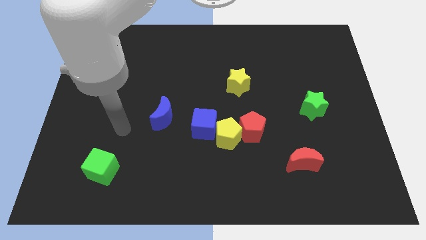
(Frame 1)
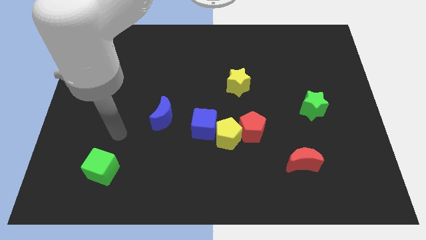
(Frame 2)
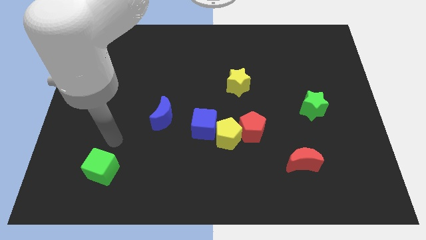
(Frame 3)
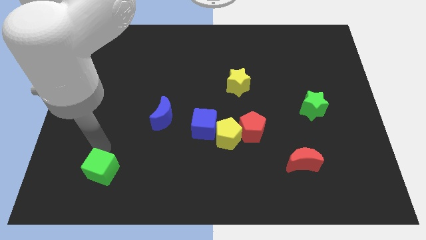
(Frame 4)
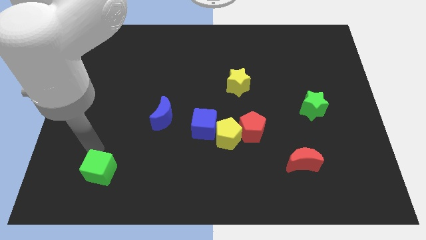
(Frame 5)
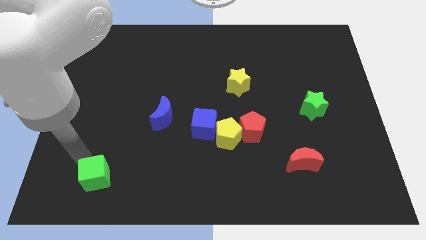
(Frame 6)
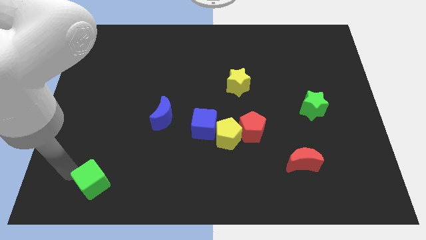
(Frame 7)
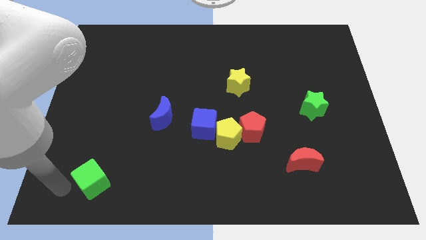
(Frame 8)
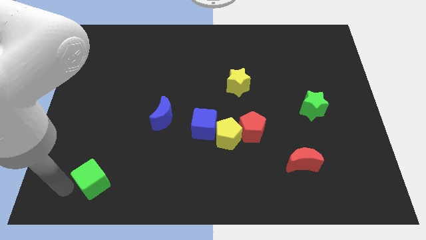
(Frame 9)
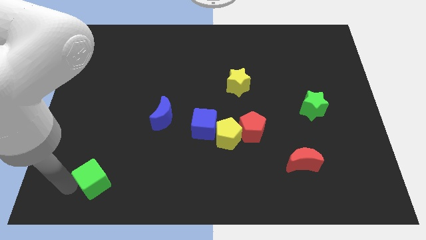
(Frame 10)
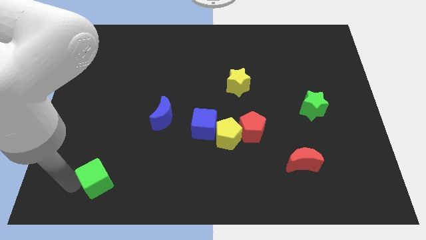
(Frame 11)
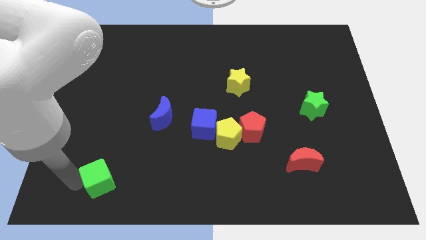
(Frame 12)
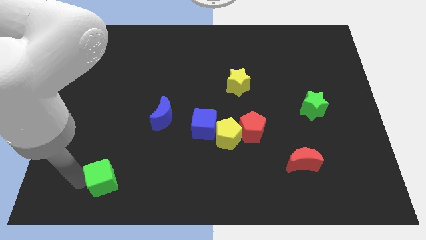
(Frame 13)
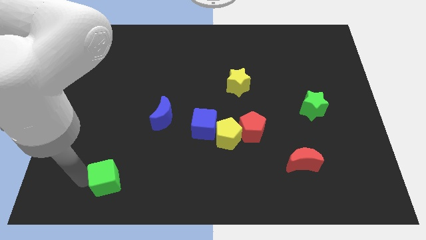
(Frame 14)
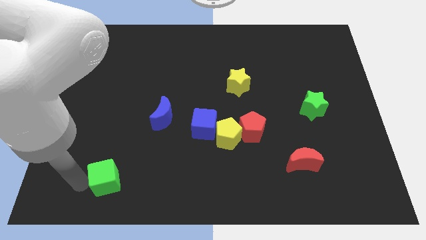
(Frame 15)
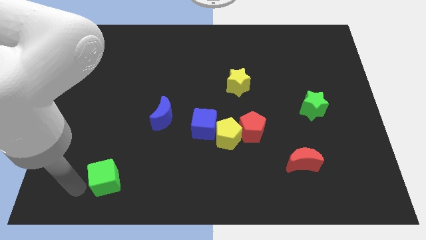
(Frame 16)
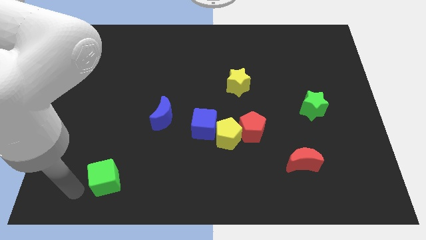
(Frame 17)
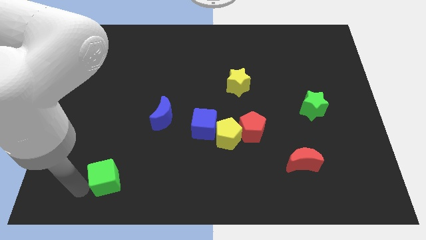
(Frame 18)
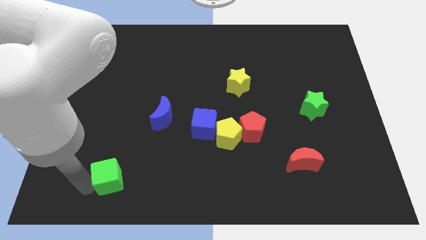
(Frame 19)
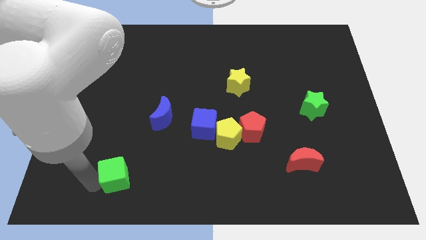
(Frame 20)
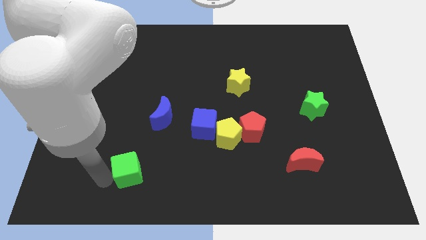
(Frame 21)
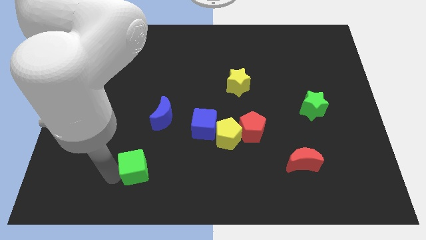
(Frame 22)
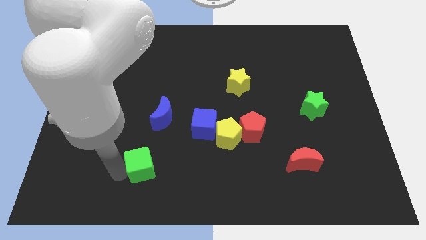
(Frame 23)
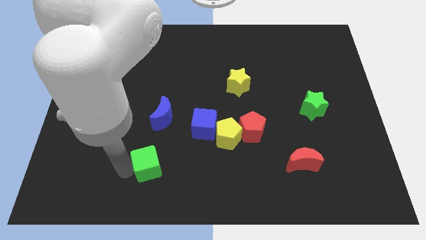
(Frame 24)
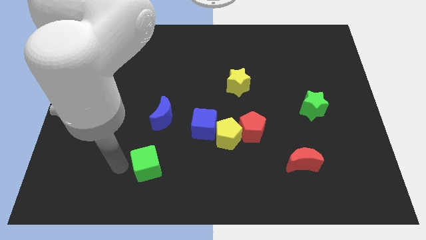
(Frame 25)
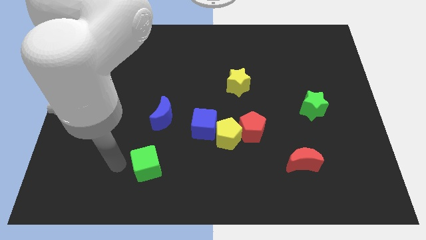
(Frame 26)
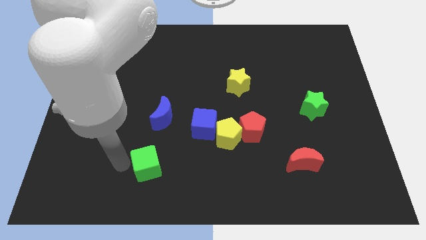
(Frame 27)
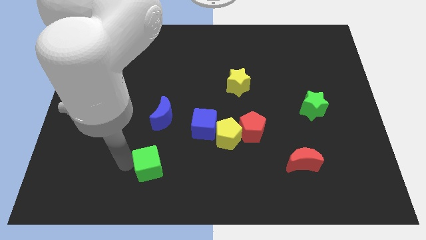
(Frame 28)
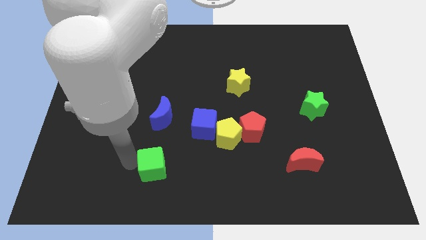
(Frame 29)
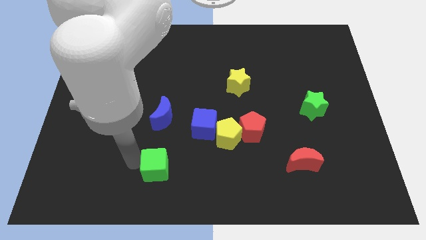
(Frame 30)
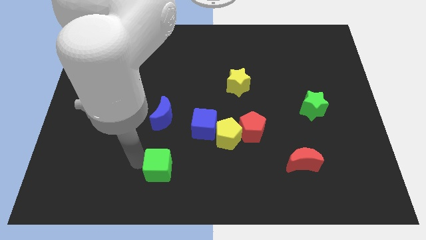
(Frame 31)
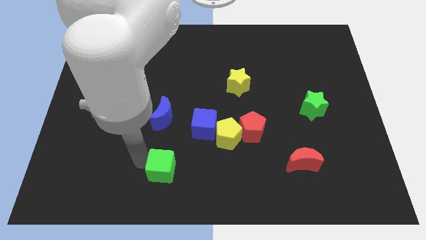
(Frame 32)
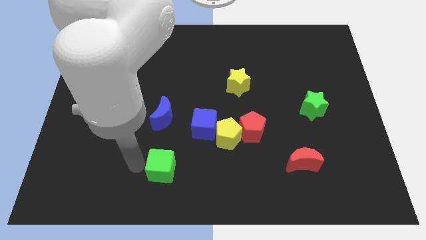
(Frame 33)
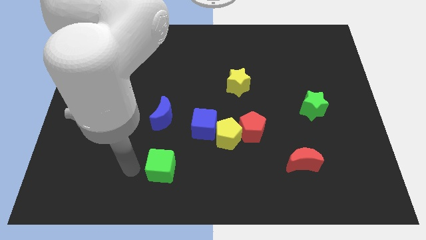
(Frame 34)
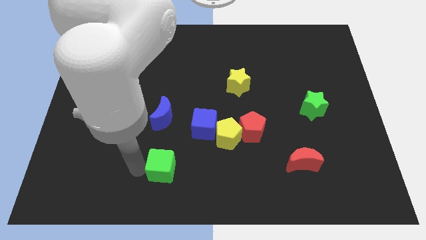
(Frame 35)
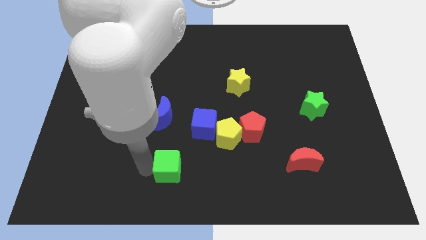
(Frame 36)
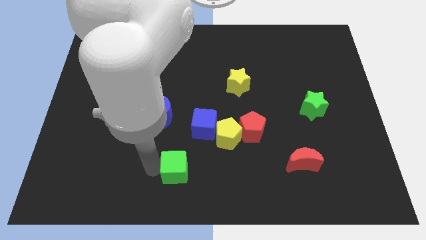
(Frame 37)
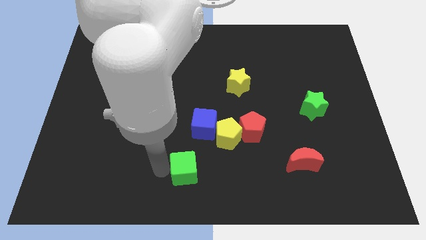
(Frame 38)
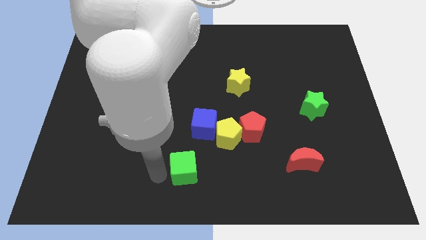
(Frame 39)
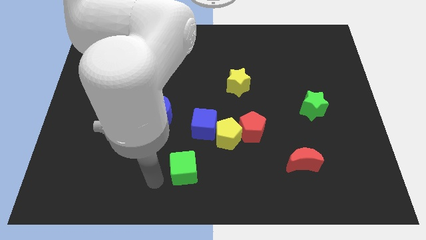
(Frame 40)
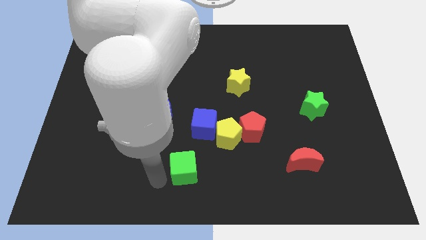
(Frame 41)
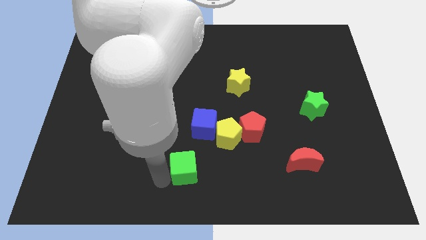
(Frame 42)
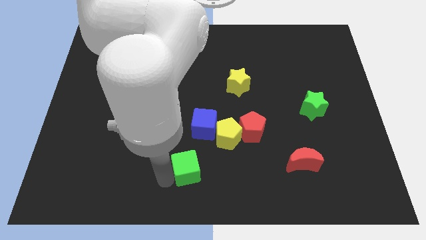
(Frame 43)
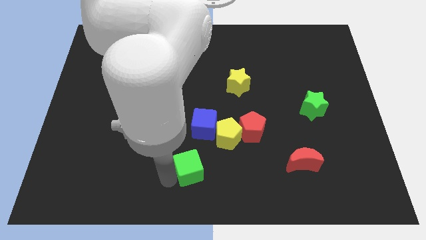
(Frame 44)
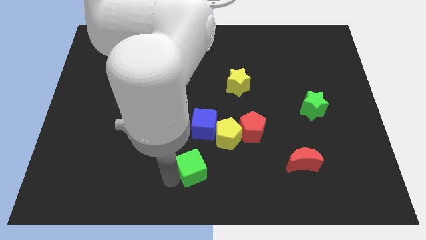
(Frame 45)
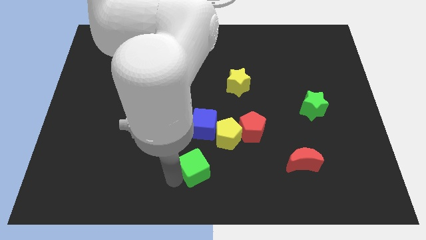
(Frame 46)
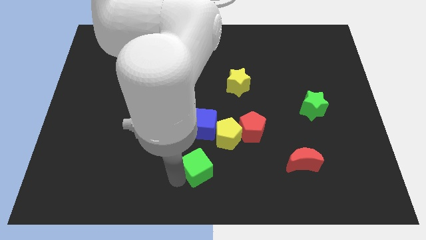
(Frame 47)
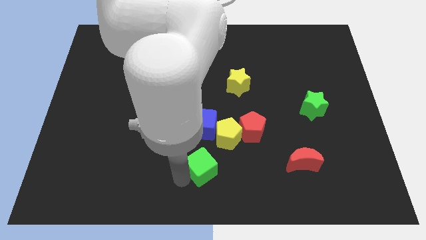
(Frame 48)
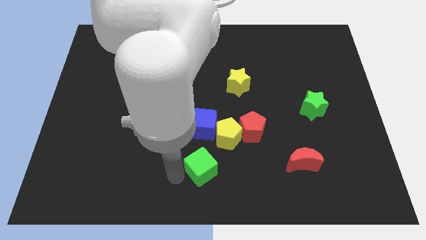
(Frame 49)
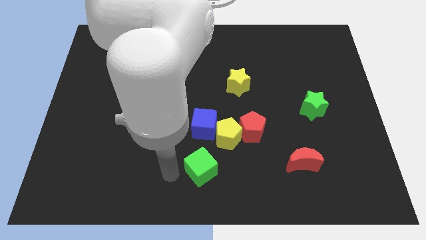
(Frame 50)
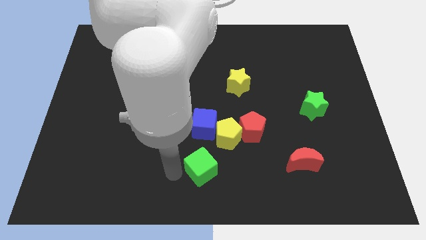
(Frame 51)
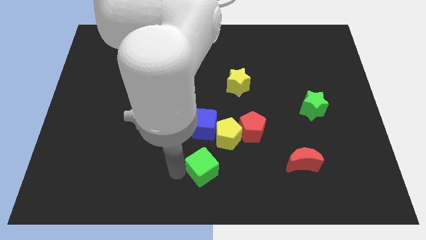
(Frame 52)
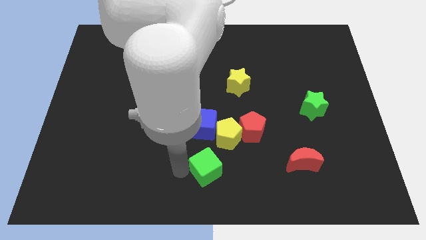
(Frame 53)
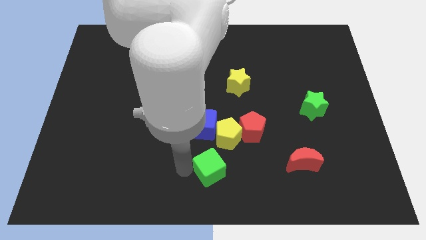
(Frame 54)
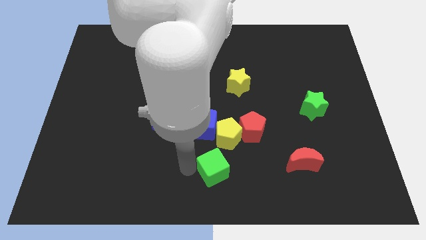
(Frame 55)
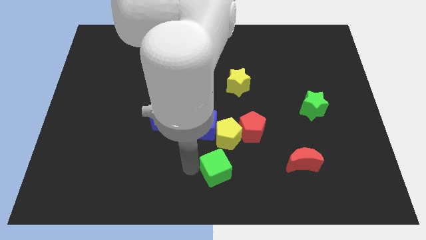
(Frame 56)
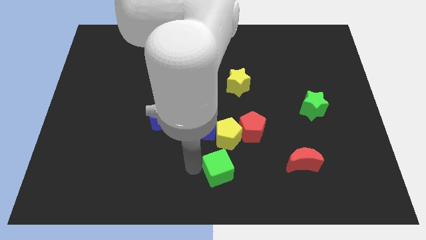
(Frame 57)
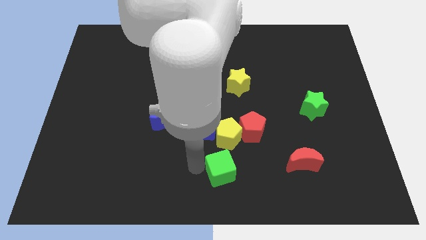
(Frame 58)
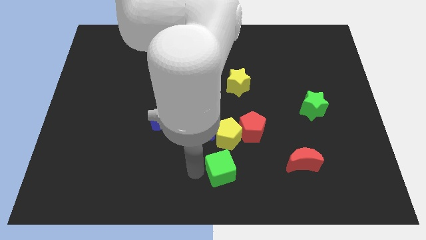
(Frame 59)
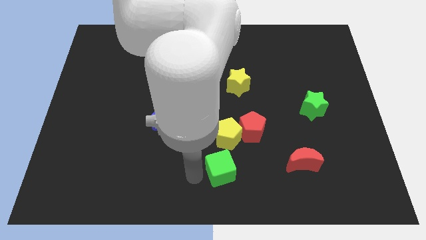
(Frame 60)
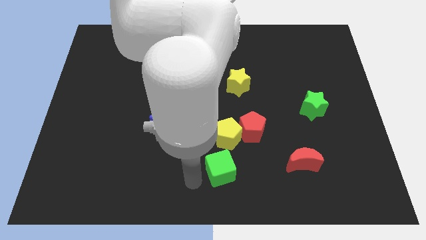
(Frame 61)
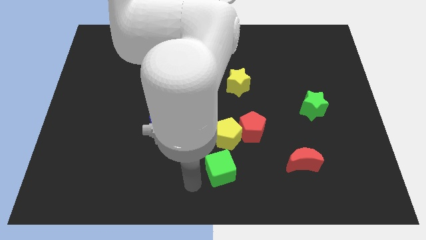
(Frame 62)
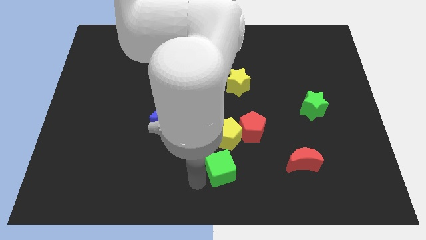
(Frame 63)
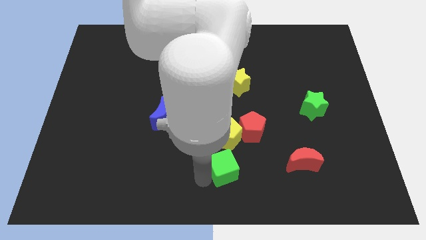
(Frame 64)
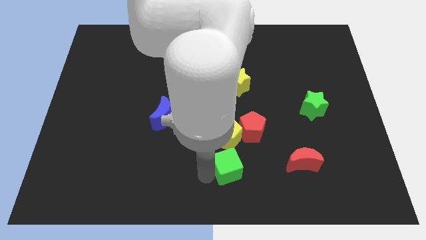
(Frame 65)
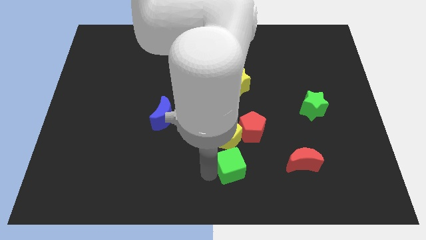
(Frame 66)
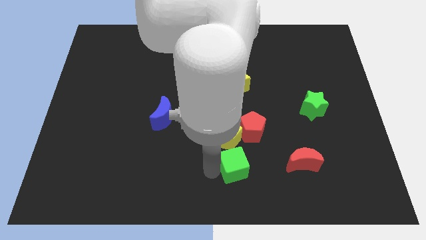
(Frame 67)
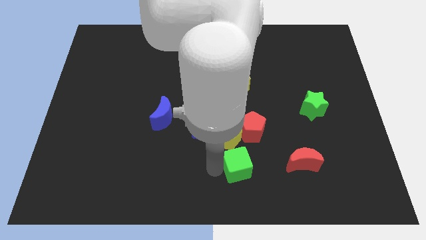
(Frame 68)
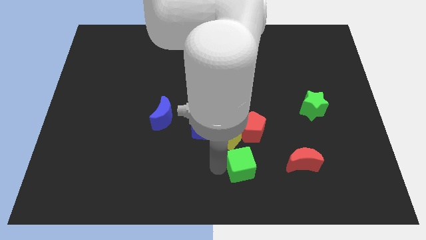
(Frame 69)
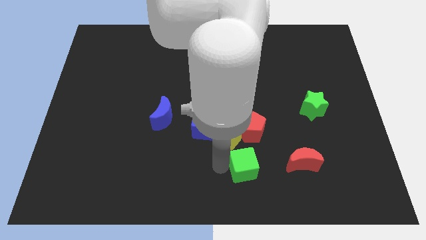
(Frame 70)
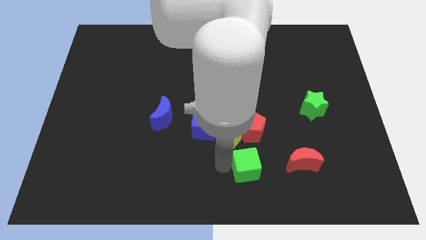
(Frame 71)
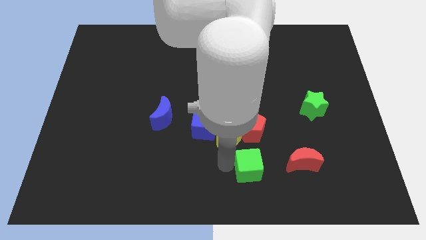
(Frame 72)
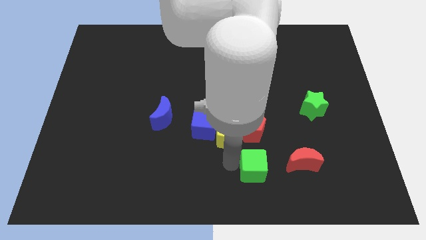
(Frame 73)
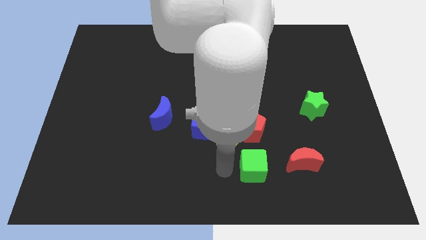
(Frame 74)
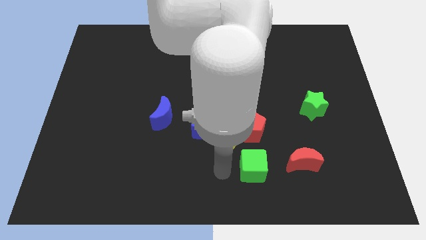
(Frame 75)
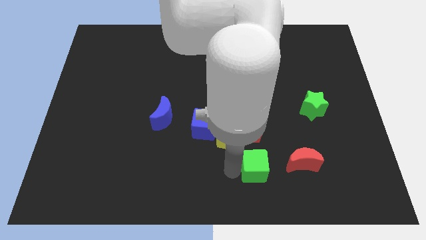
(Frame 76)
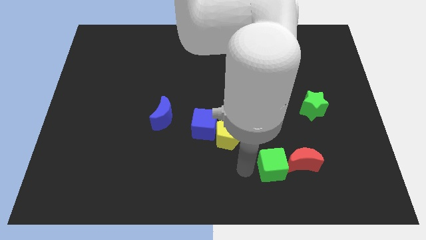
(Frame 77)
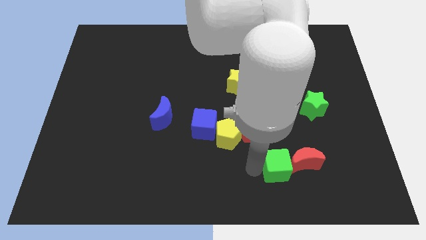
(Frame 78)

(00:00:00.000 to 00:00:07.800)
move the green cube to the red moon
